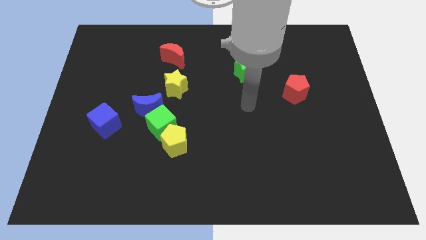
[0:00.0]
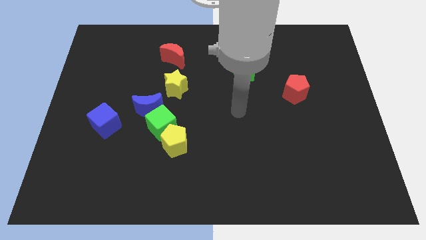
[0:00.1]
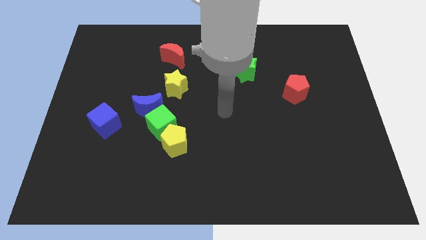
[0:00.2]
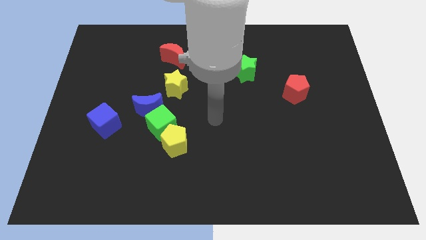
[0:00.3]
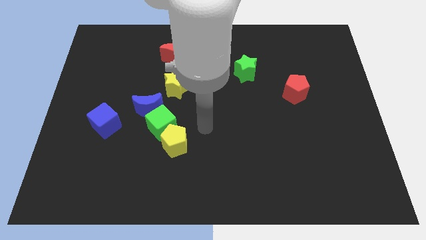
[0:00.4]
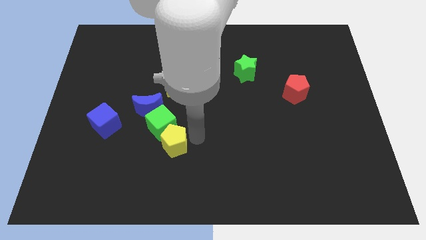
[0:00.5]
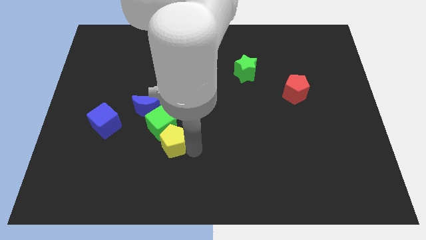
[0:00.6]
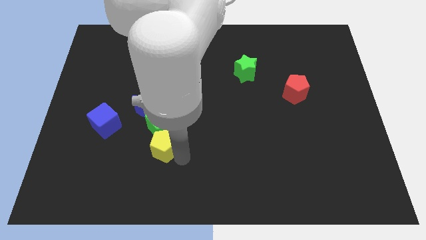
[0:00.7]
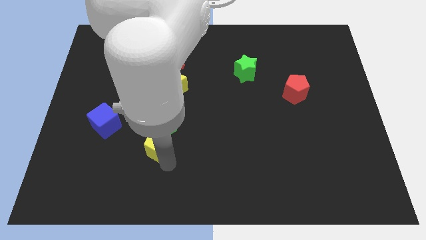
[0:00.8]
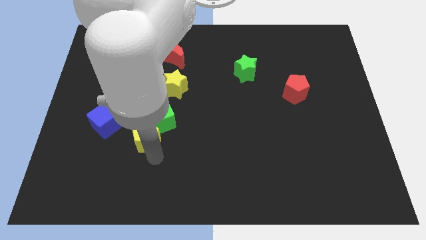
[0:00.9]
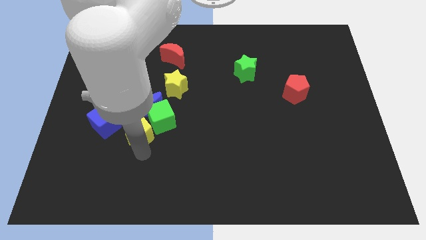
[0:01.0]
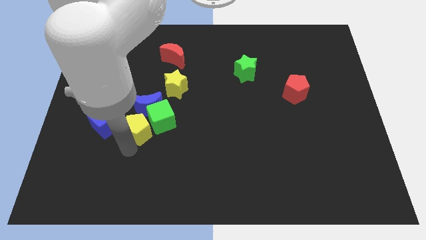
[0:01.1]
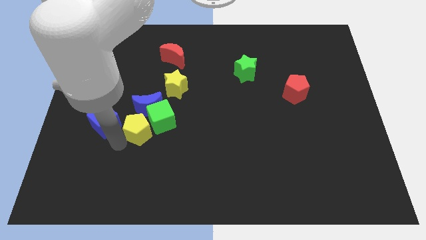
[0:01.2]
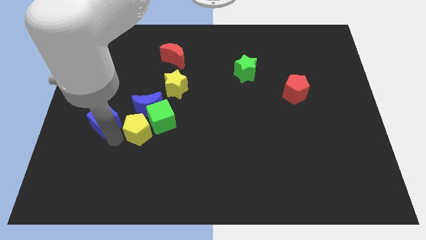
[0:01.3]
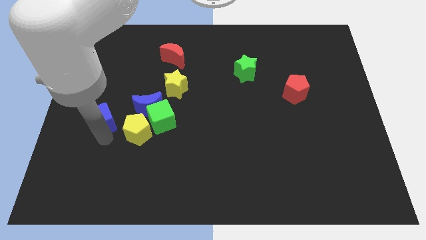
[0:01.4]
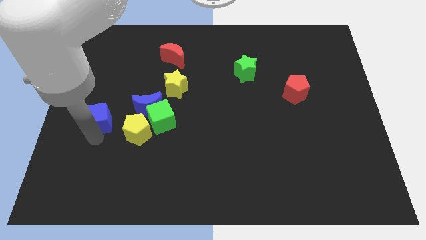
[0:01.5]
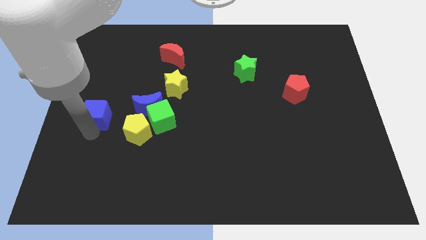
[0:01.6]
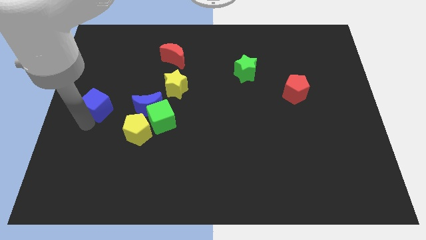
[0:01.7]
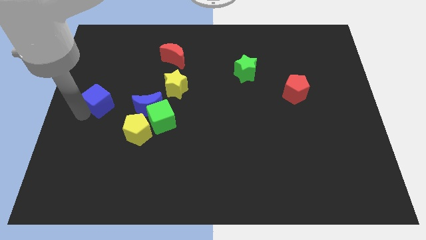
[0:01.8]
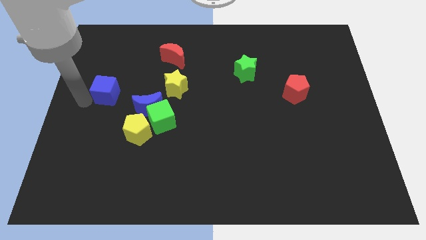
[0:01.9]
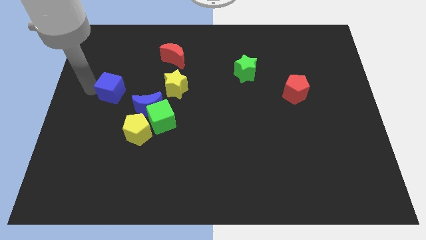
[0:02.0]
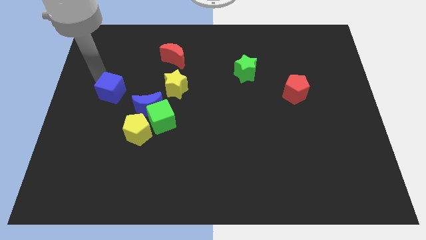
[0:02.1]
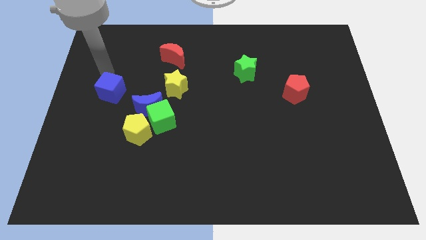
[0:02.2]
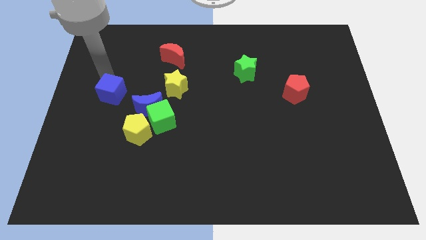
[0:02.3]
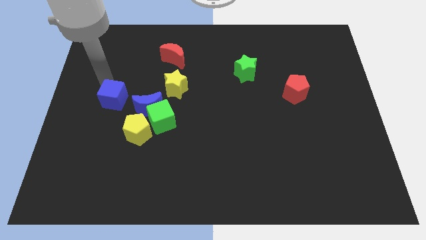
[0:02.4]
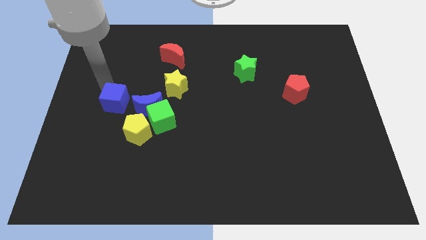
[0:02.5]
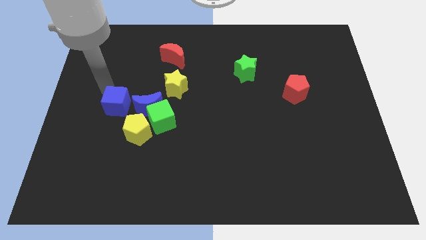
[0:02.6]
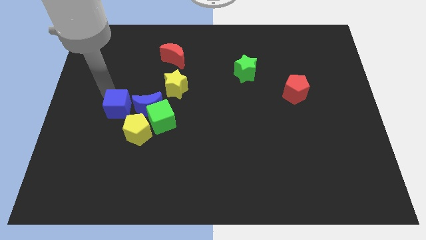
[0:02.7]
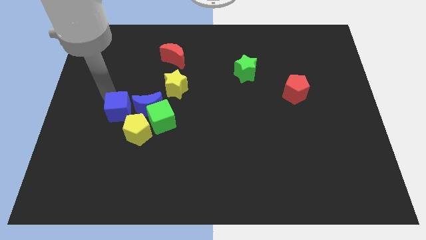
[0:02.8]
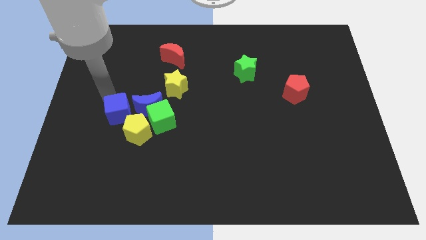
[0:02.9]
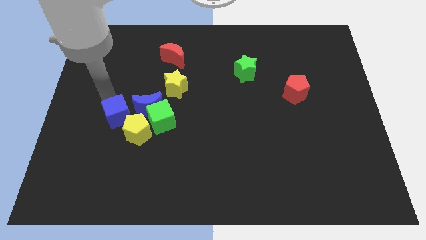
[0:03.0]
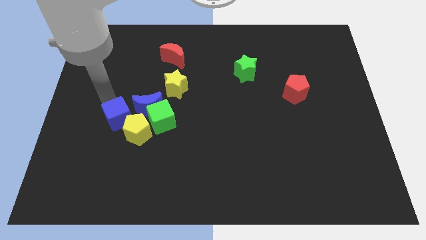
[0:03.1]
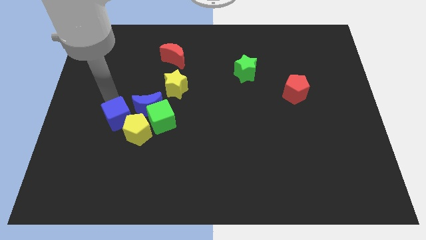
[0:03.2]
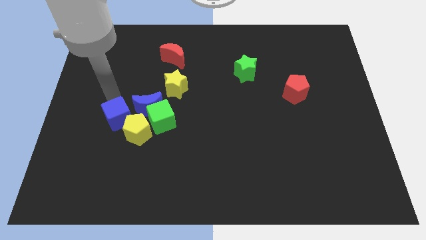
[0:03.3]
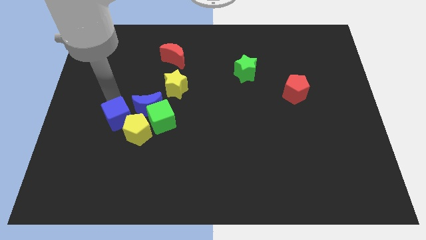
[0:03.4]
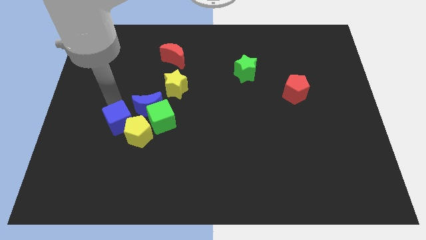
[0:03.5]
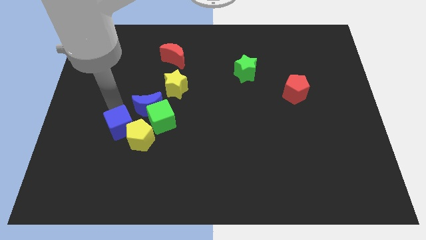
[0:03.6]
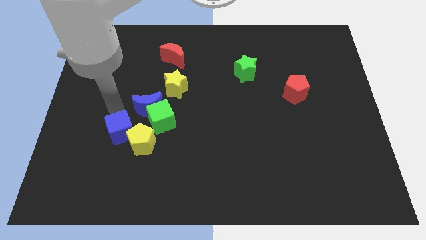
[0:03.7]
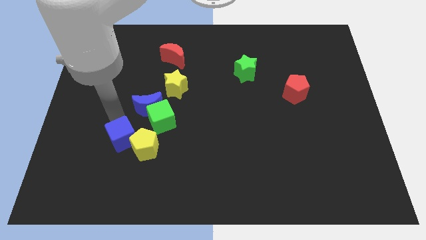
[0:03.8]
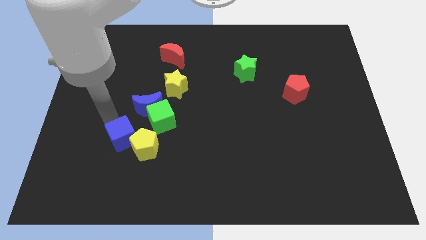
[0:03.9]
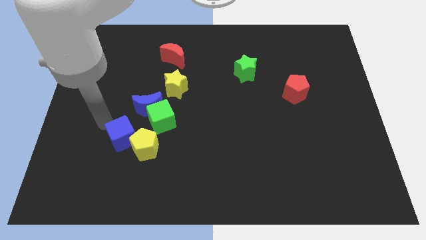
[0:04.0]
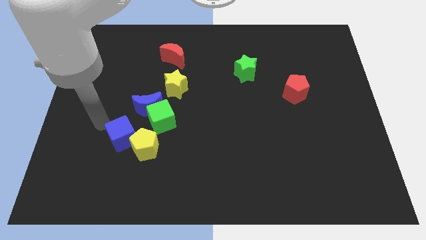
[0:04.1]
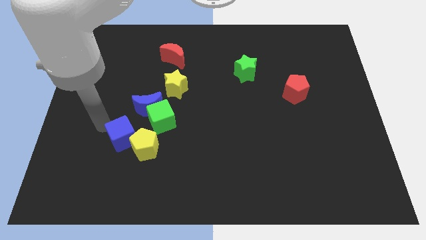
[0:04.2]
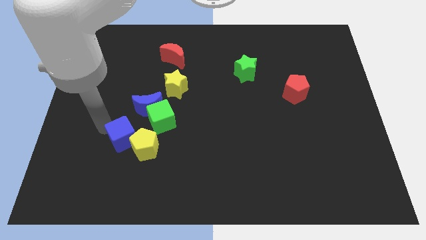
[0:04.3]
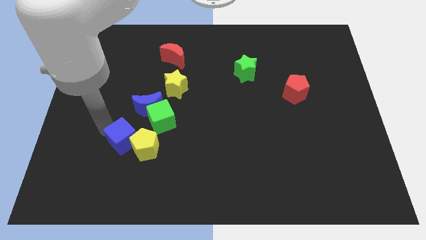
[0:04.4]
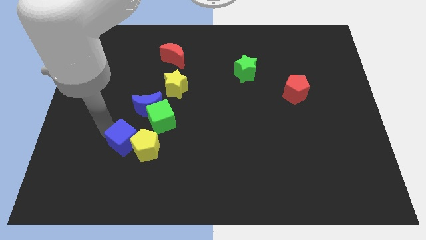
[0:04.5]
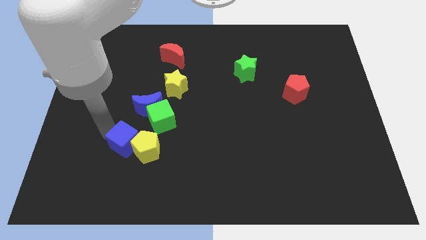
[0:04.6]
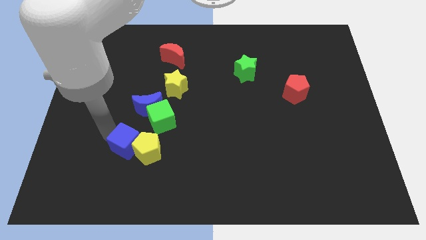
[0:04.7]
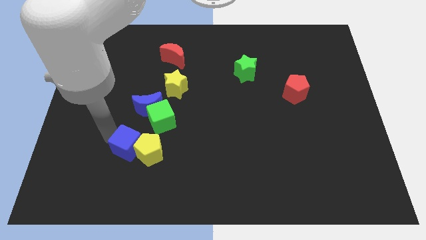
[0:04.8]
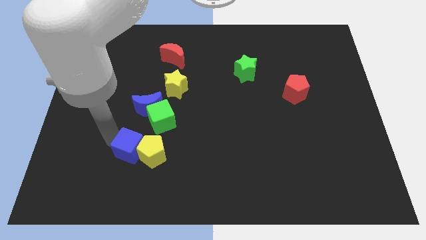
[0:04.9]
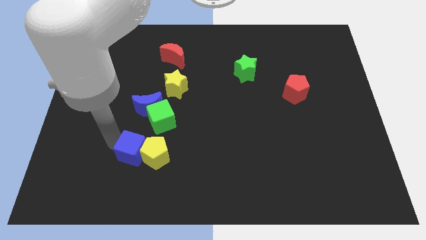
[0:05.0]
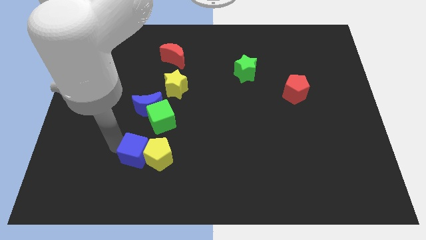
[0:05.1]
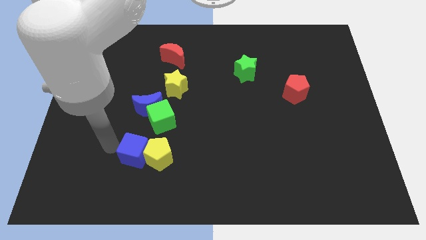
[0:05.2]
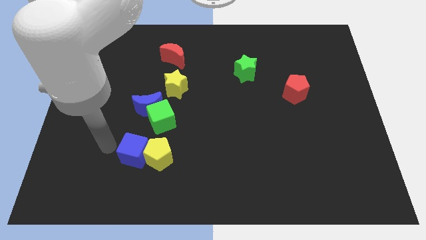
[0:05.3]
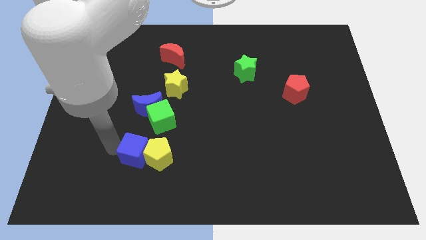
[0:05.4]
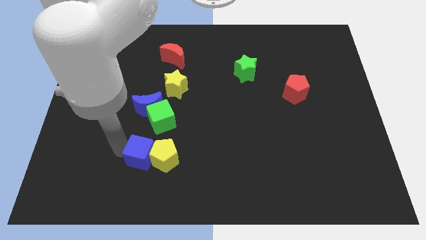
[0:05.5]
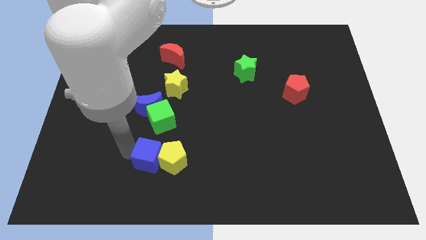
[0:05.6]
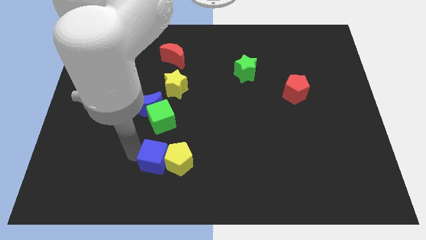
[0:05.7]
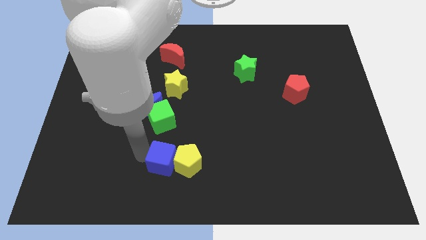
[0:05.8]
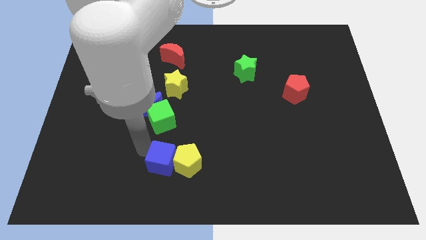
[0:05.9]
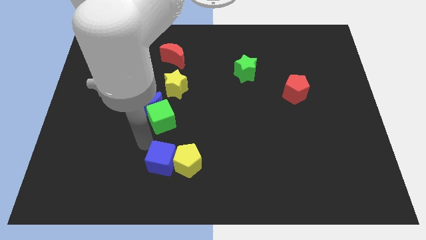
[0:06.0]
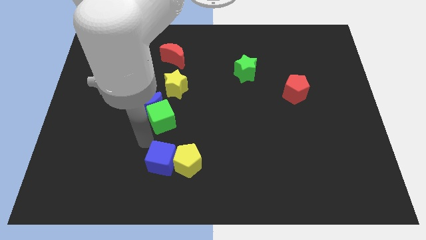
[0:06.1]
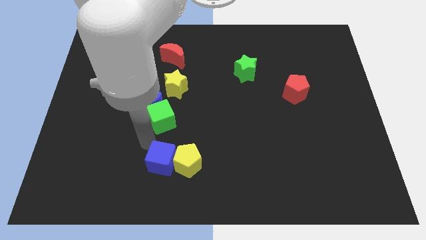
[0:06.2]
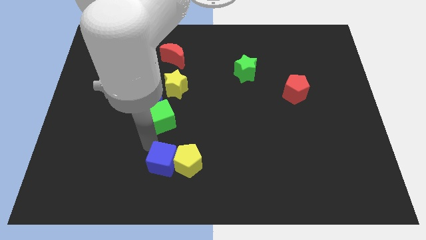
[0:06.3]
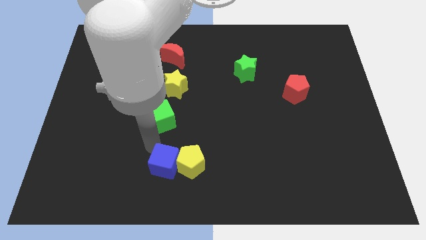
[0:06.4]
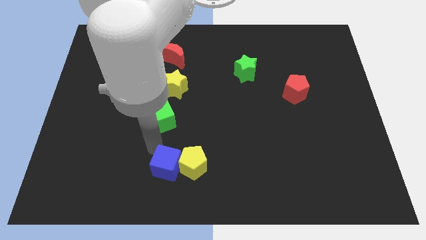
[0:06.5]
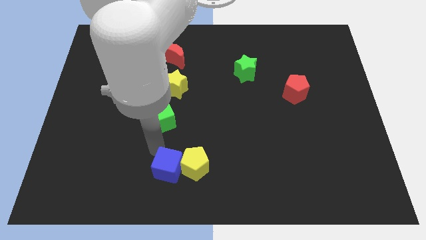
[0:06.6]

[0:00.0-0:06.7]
put the blue cube to the bottom
